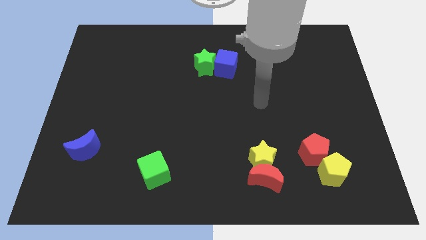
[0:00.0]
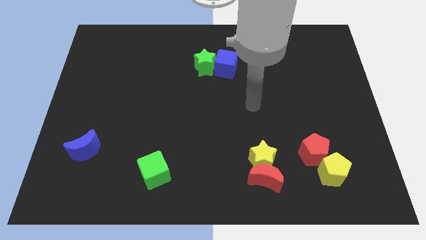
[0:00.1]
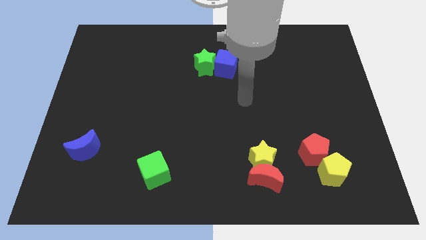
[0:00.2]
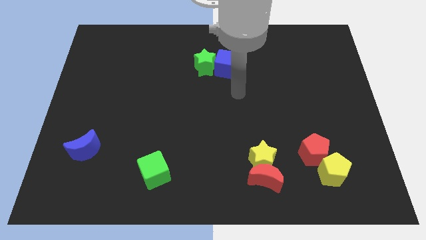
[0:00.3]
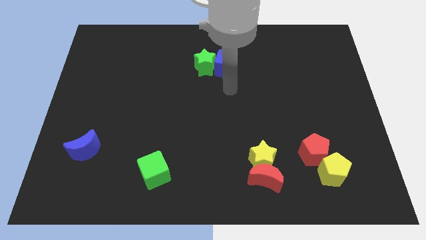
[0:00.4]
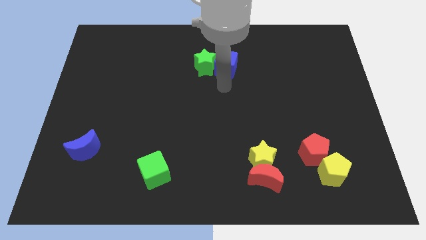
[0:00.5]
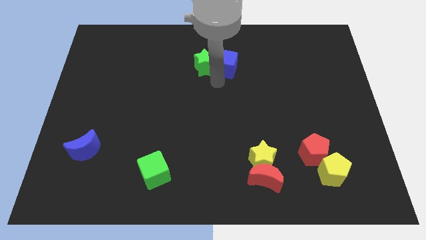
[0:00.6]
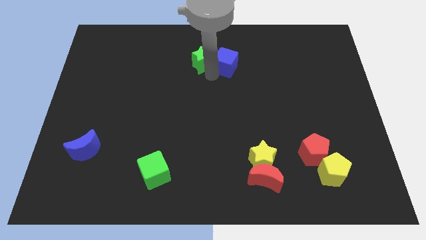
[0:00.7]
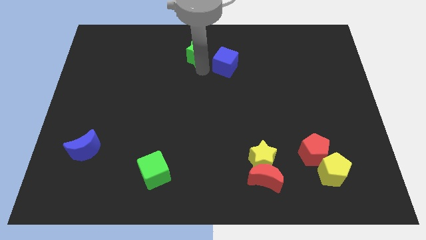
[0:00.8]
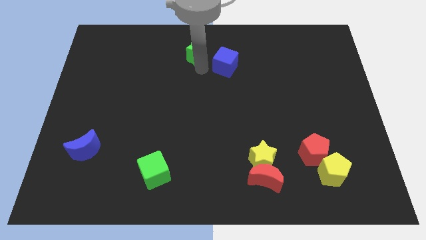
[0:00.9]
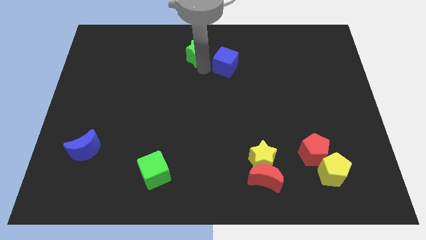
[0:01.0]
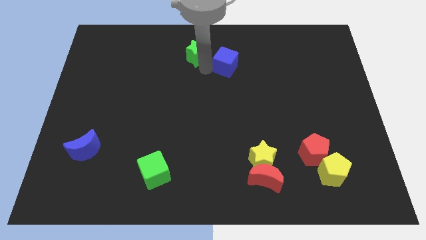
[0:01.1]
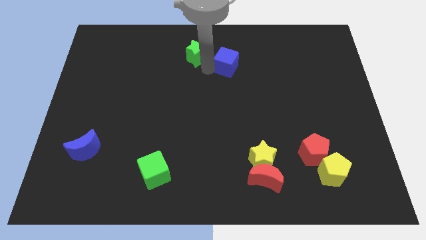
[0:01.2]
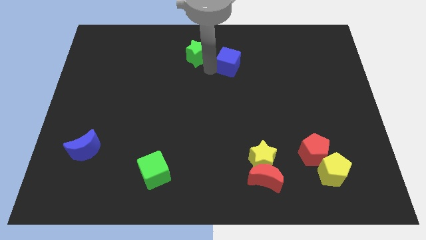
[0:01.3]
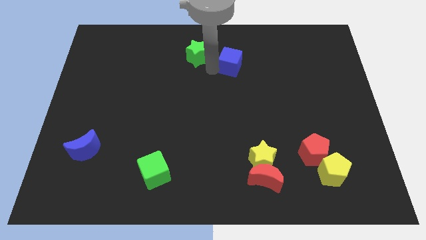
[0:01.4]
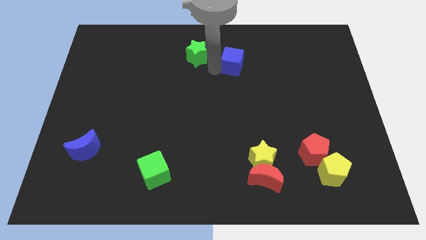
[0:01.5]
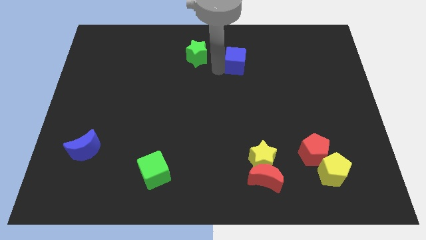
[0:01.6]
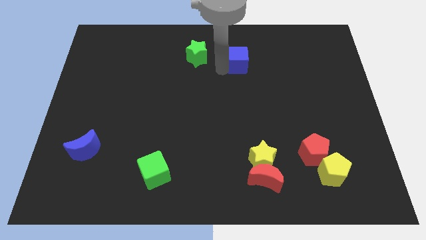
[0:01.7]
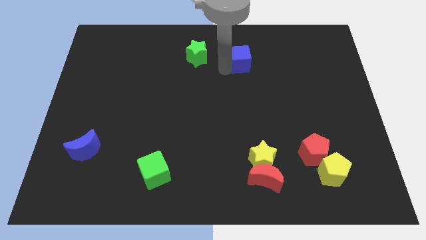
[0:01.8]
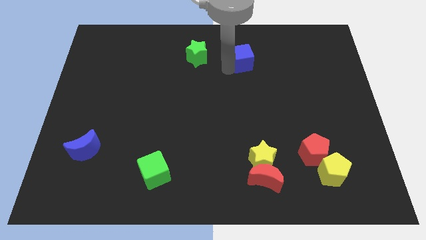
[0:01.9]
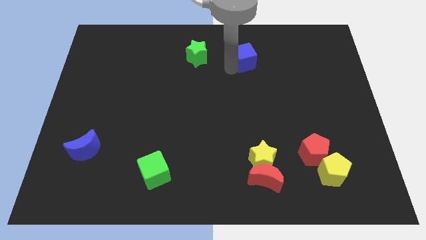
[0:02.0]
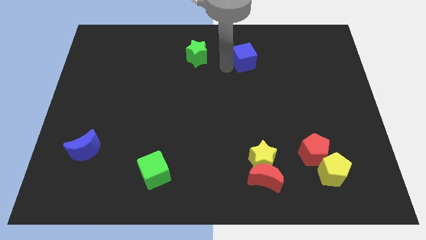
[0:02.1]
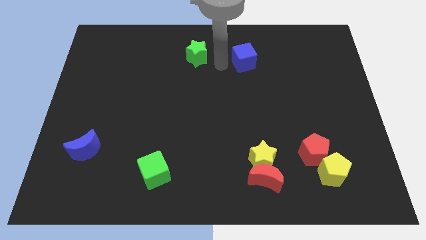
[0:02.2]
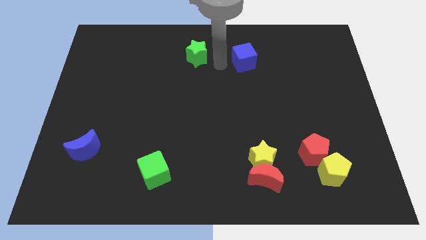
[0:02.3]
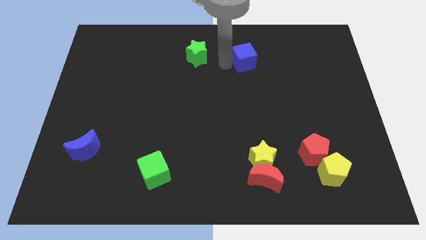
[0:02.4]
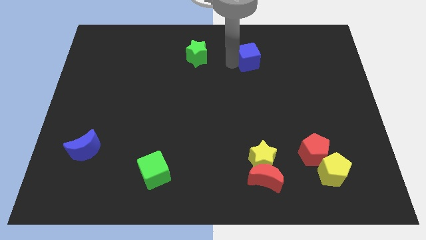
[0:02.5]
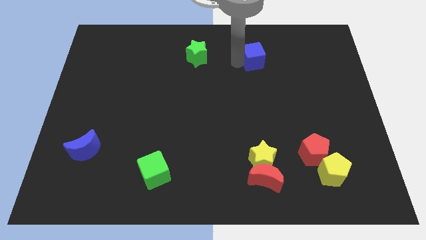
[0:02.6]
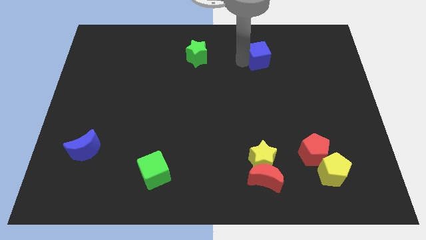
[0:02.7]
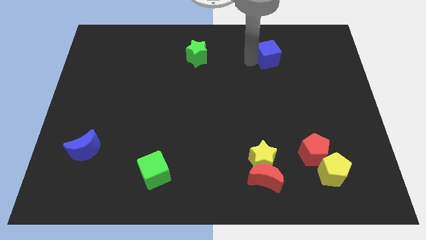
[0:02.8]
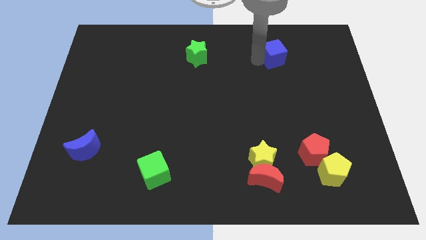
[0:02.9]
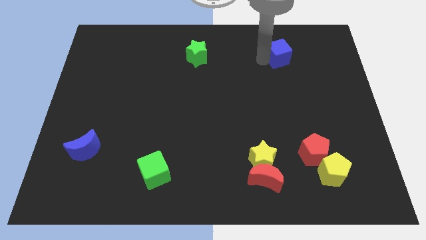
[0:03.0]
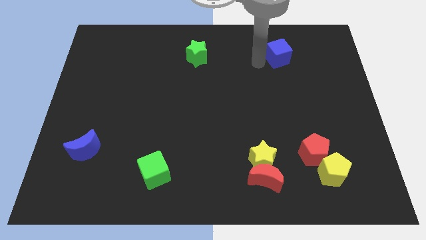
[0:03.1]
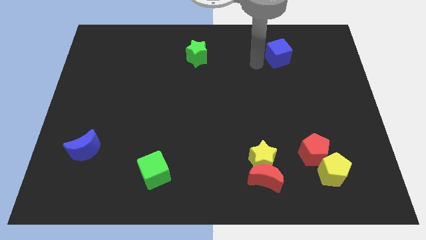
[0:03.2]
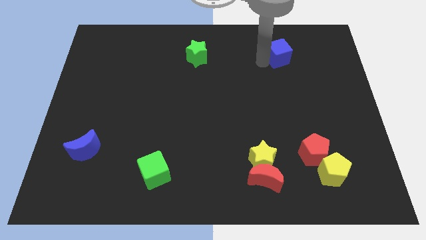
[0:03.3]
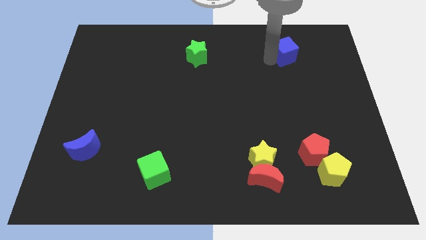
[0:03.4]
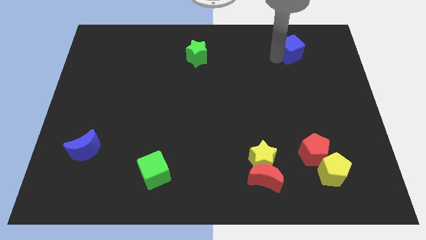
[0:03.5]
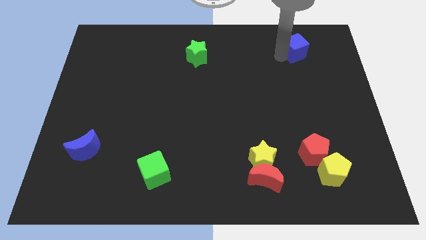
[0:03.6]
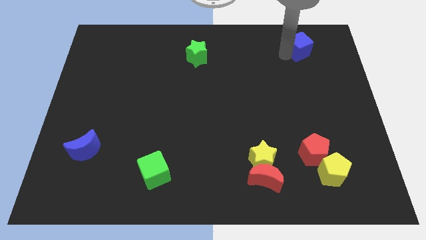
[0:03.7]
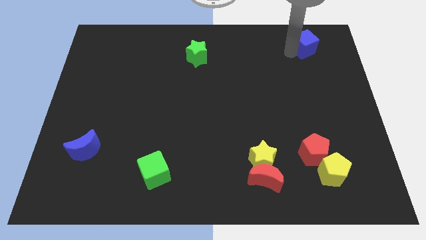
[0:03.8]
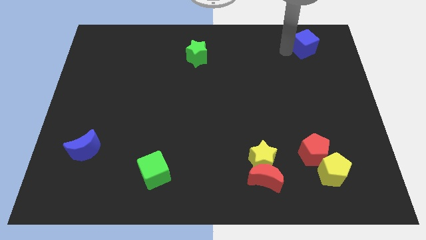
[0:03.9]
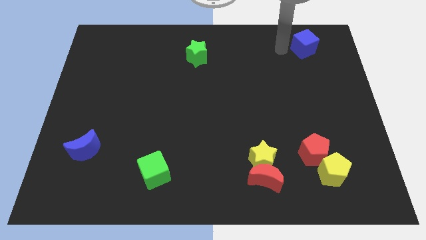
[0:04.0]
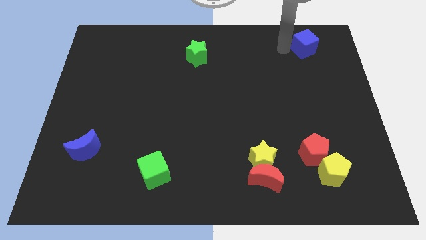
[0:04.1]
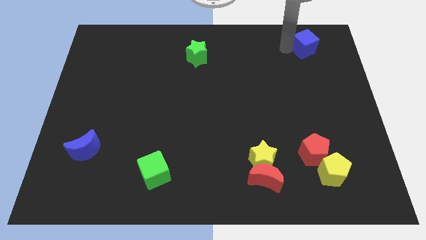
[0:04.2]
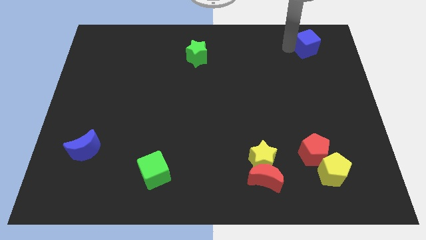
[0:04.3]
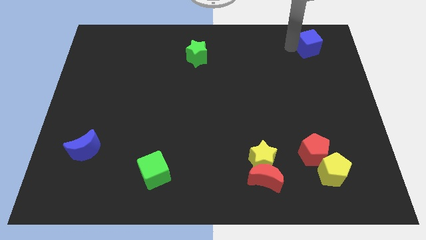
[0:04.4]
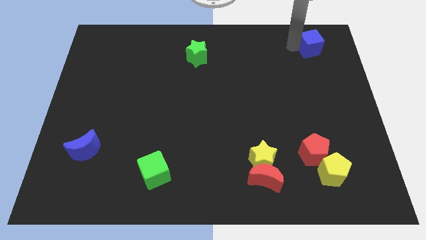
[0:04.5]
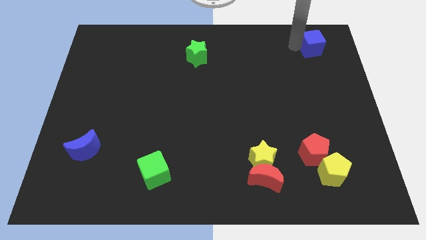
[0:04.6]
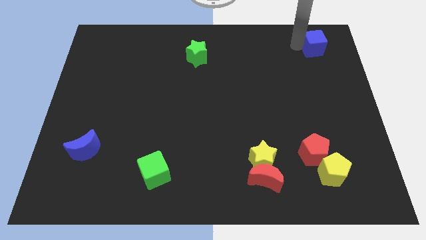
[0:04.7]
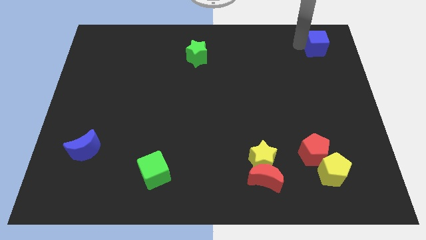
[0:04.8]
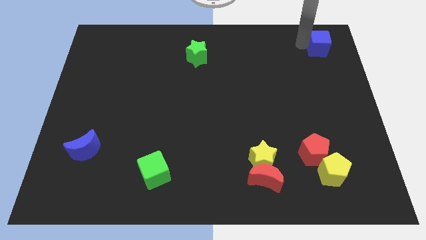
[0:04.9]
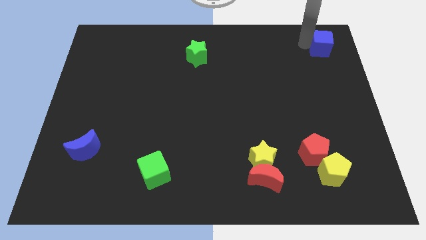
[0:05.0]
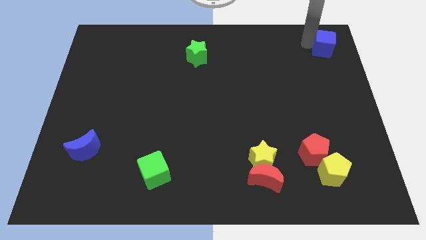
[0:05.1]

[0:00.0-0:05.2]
slide the blue cube to the top right of the board

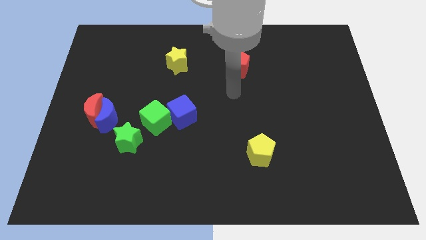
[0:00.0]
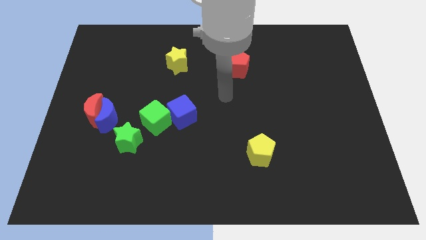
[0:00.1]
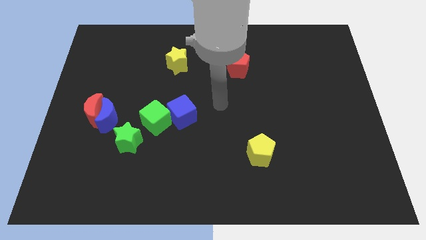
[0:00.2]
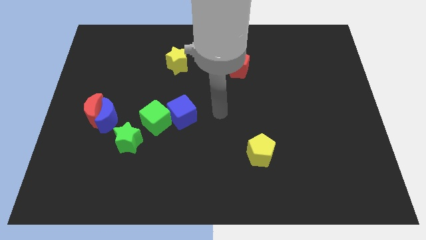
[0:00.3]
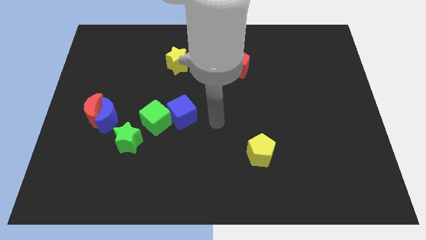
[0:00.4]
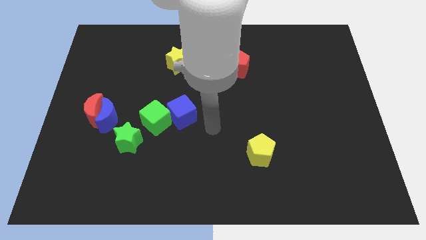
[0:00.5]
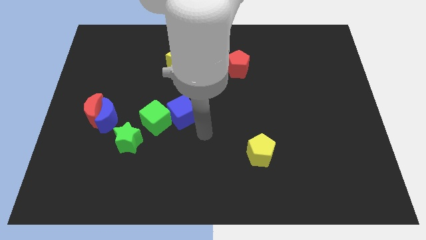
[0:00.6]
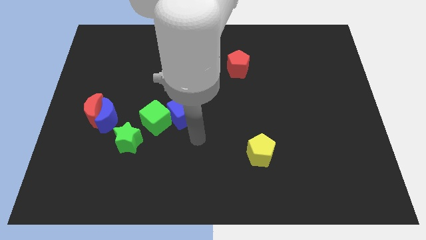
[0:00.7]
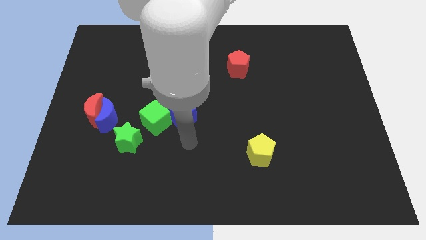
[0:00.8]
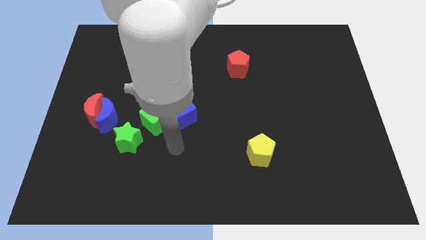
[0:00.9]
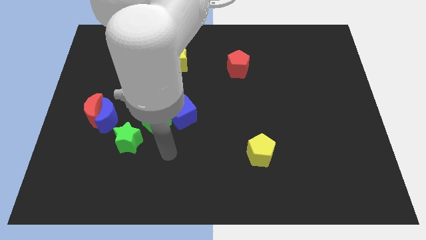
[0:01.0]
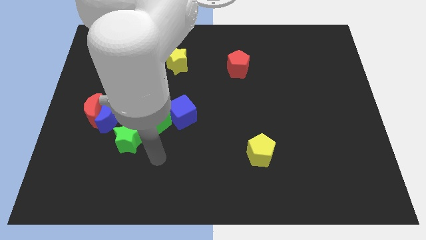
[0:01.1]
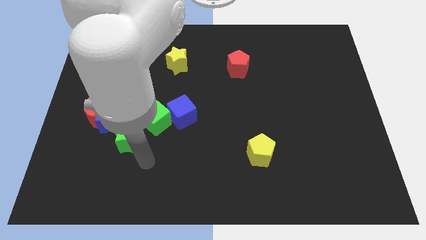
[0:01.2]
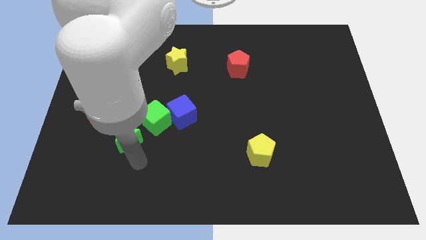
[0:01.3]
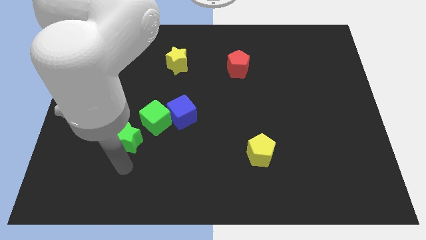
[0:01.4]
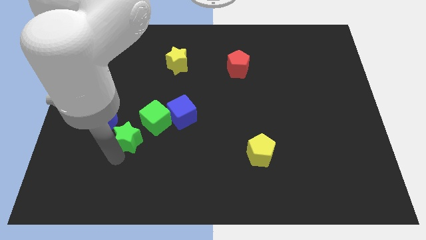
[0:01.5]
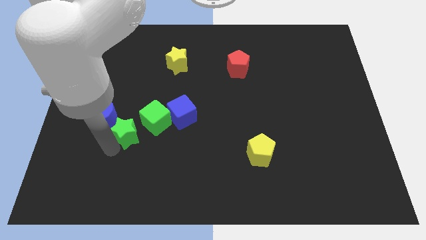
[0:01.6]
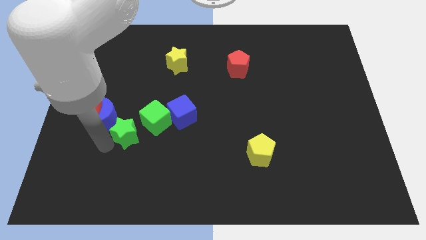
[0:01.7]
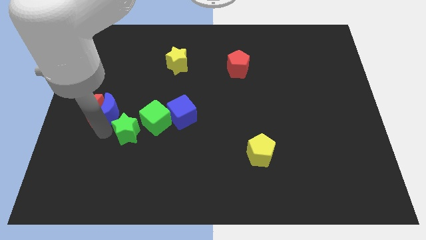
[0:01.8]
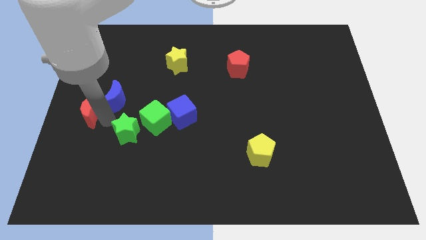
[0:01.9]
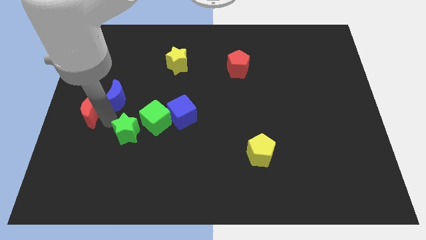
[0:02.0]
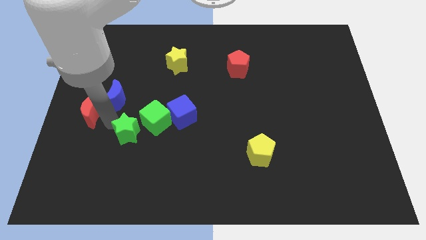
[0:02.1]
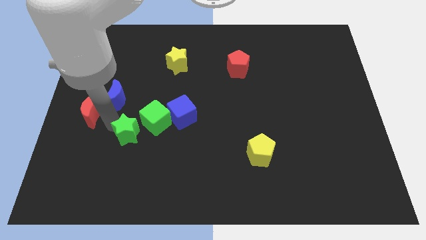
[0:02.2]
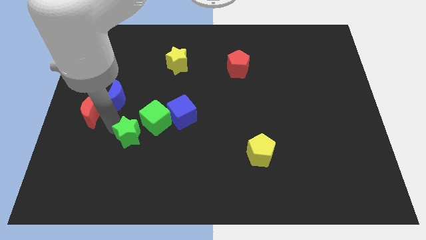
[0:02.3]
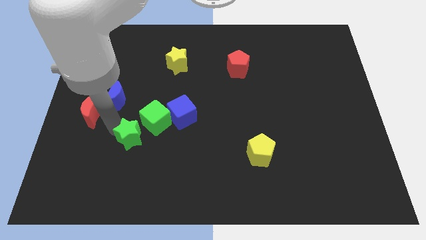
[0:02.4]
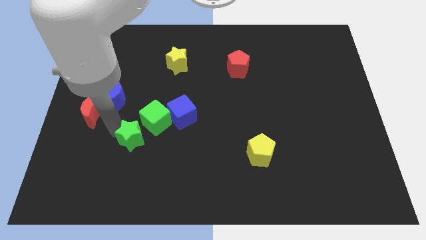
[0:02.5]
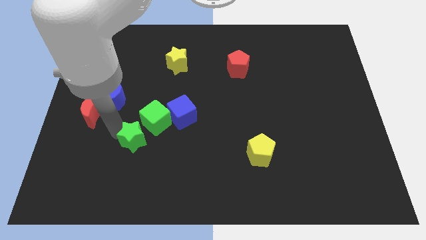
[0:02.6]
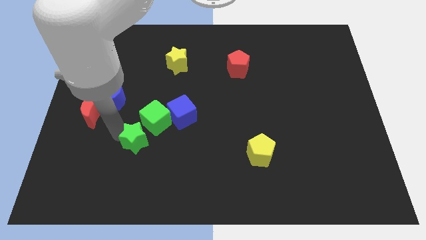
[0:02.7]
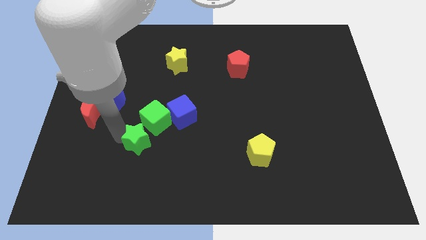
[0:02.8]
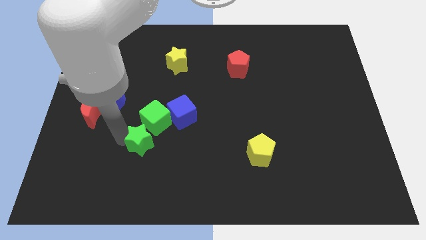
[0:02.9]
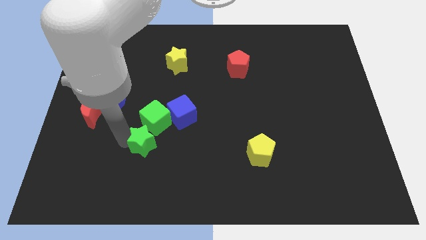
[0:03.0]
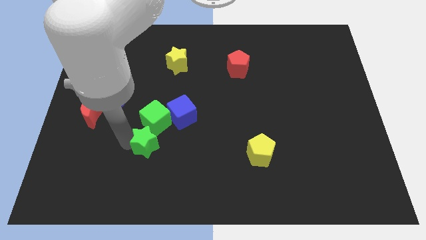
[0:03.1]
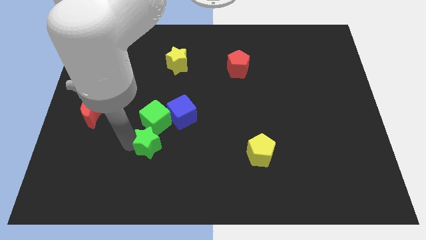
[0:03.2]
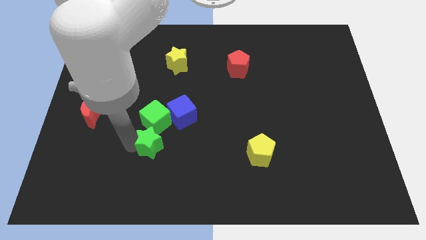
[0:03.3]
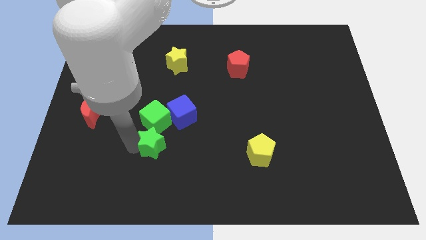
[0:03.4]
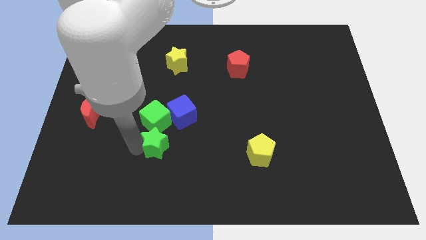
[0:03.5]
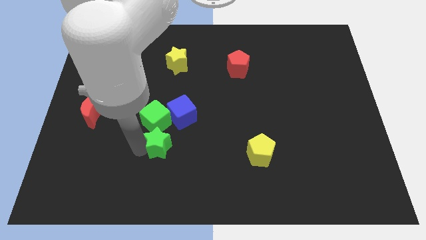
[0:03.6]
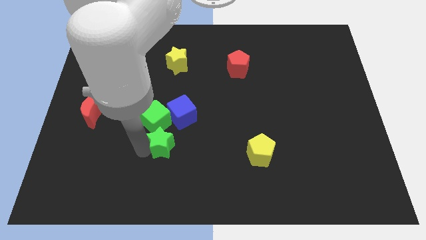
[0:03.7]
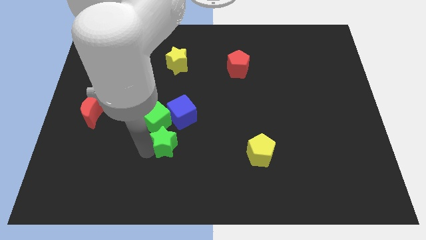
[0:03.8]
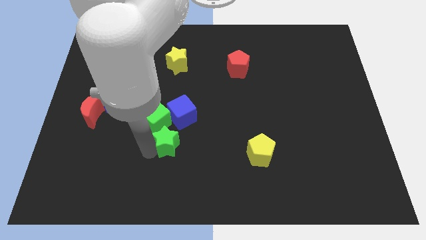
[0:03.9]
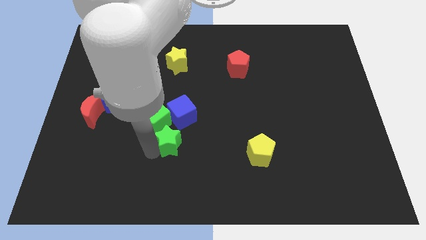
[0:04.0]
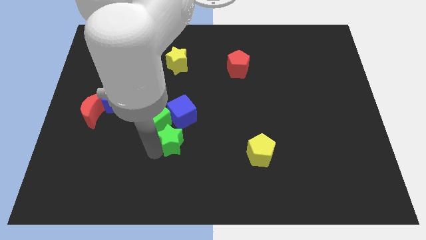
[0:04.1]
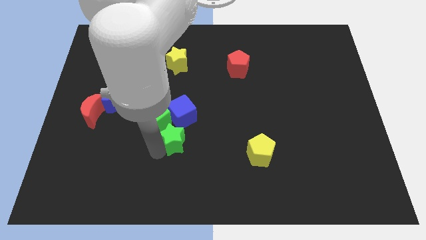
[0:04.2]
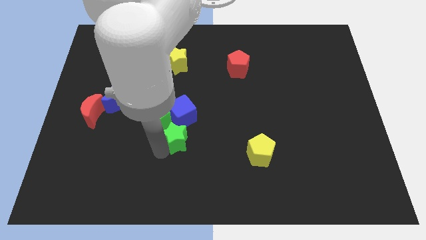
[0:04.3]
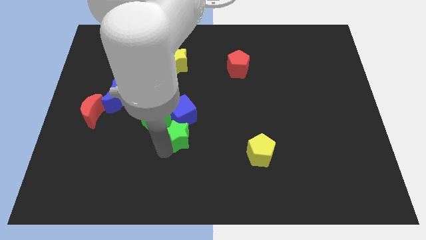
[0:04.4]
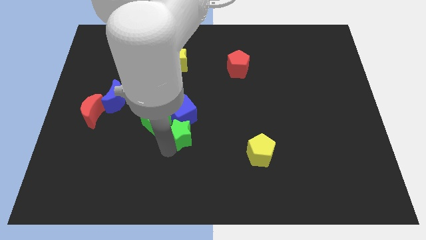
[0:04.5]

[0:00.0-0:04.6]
slide the green star to the center of the board
